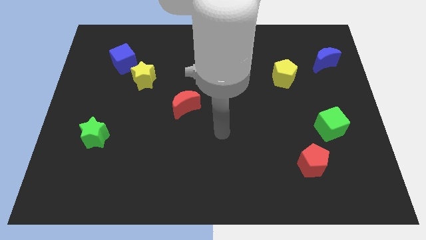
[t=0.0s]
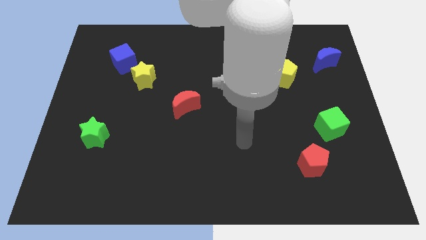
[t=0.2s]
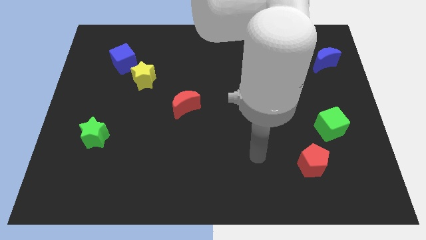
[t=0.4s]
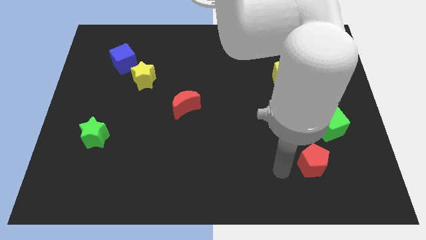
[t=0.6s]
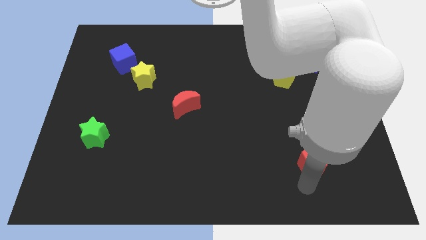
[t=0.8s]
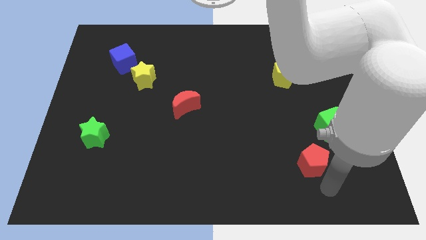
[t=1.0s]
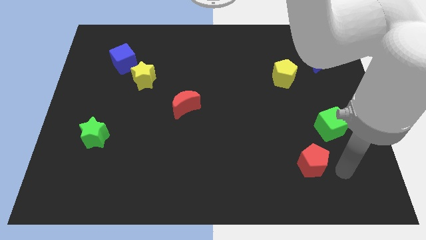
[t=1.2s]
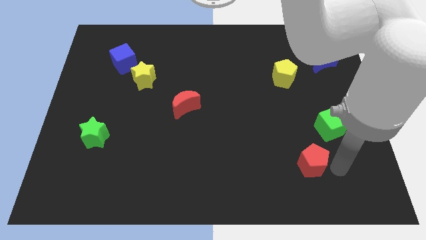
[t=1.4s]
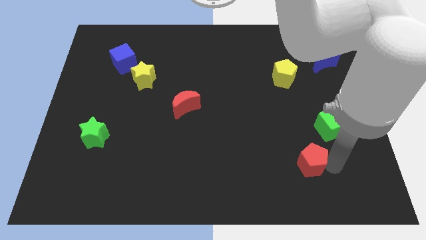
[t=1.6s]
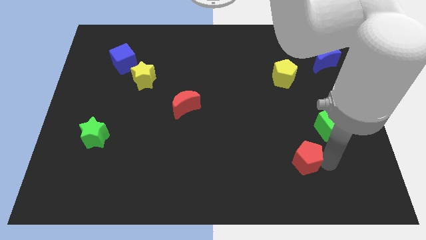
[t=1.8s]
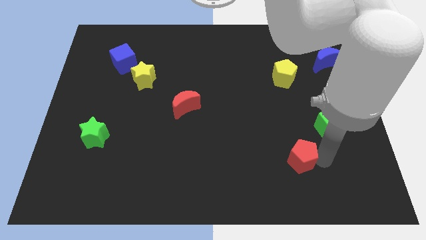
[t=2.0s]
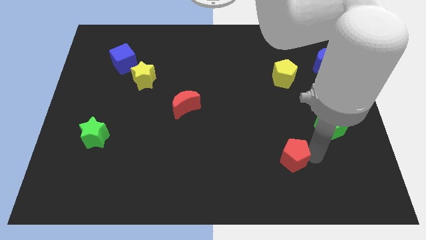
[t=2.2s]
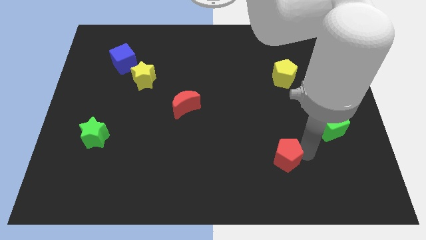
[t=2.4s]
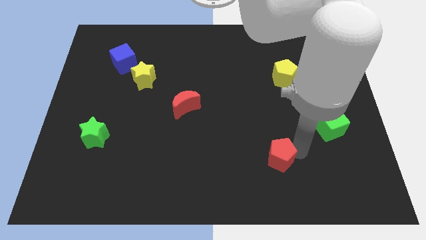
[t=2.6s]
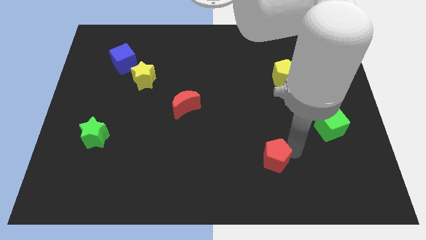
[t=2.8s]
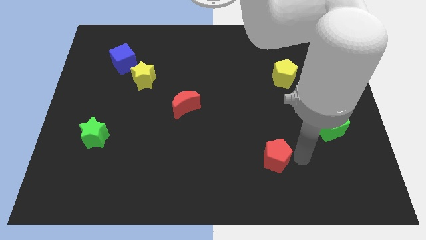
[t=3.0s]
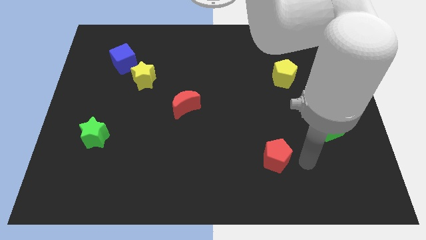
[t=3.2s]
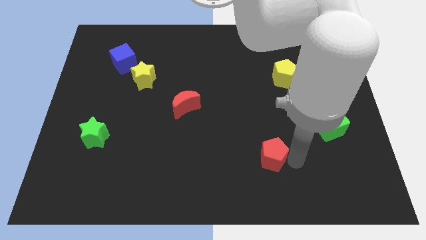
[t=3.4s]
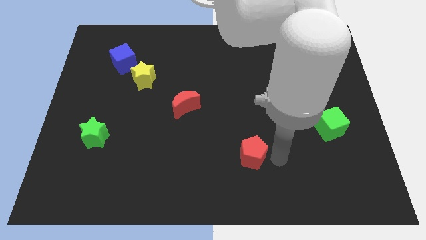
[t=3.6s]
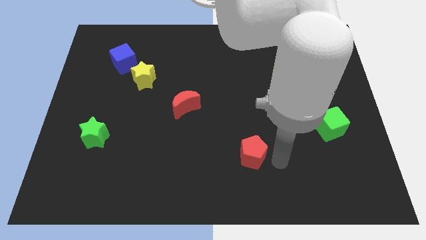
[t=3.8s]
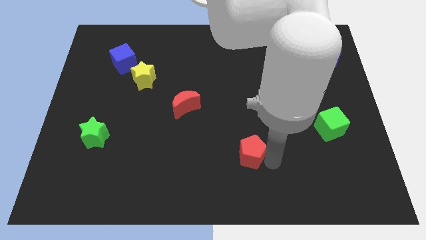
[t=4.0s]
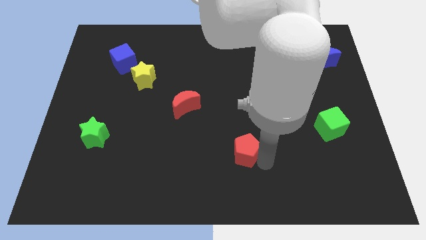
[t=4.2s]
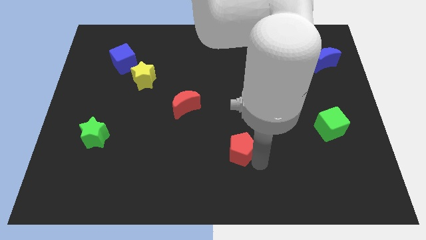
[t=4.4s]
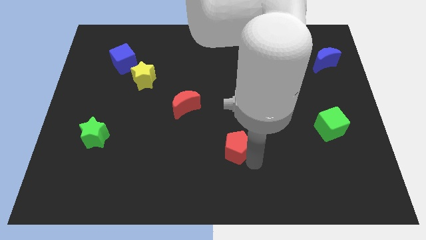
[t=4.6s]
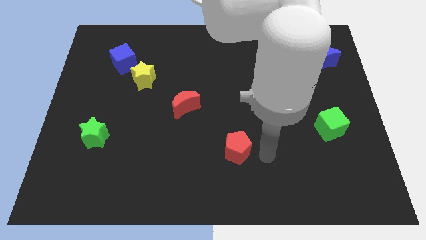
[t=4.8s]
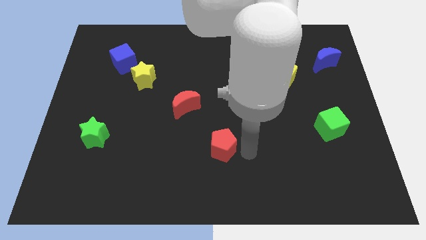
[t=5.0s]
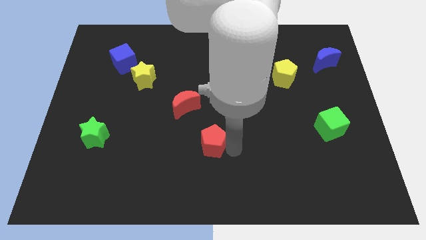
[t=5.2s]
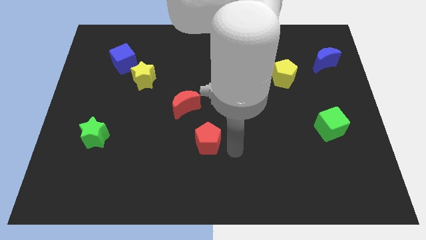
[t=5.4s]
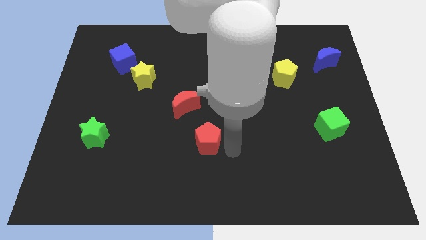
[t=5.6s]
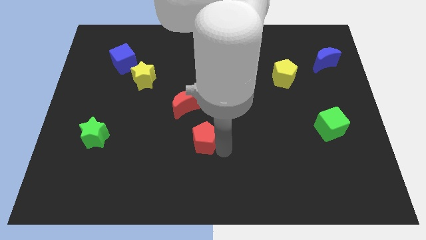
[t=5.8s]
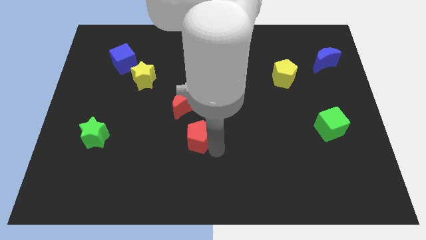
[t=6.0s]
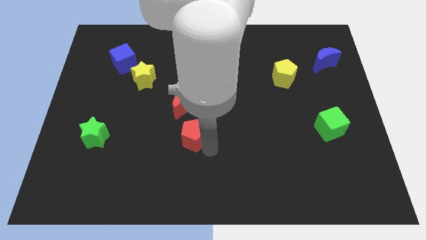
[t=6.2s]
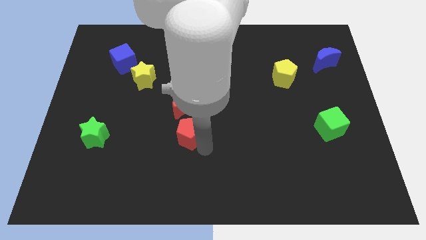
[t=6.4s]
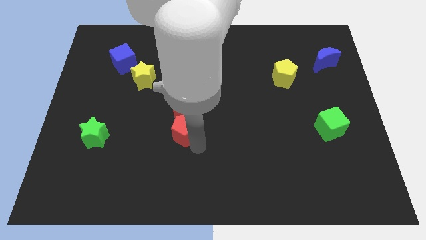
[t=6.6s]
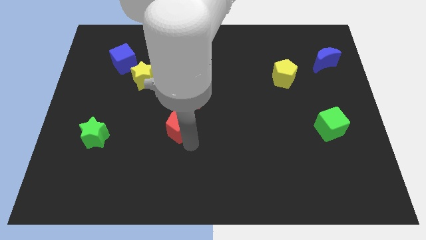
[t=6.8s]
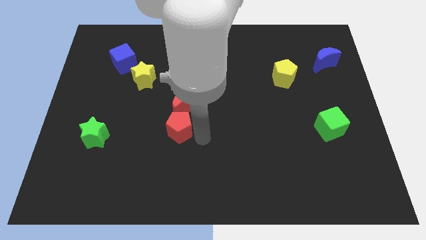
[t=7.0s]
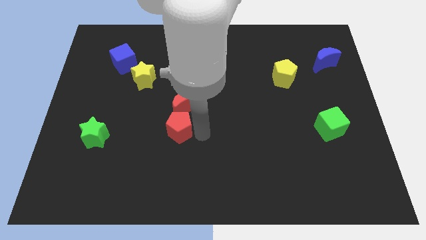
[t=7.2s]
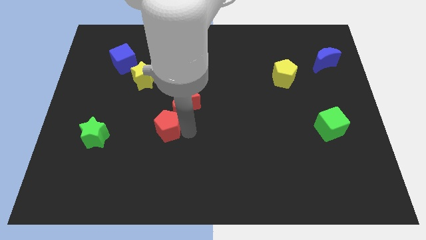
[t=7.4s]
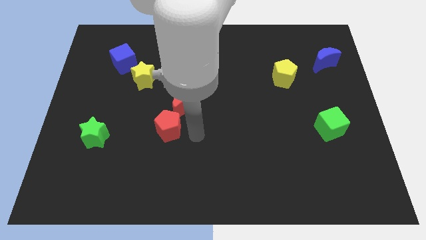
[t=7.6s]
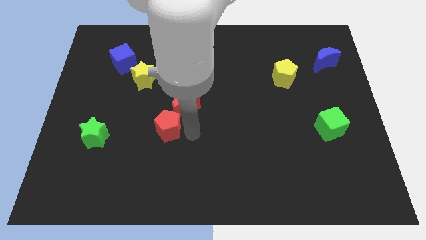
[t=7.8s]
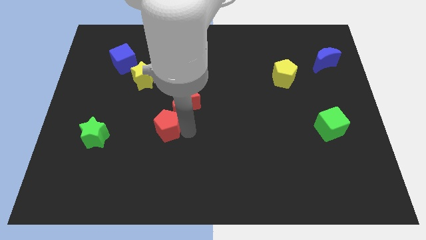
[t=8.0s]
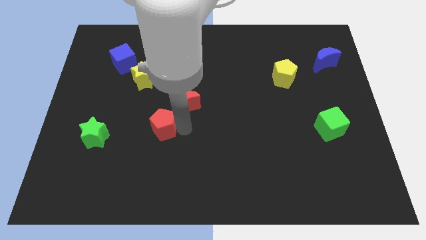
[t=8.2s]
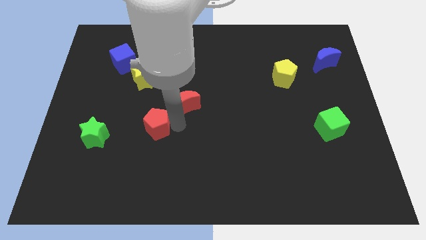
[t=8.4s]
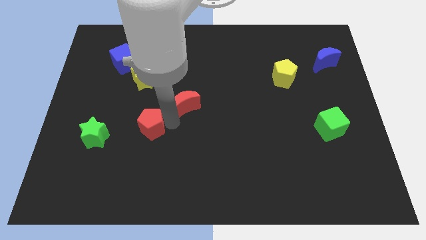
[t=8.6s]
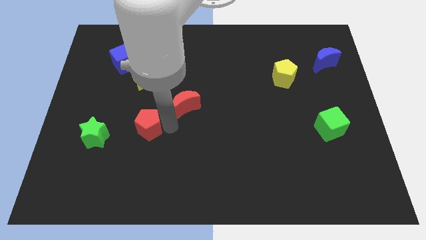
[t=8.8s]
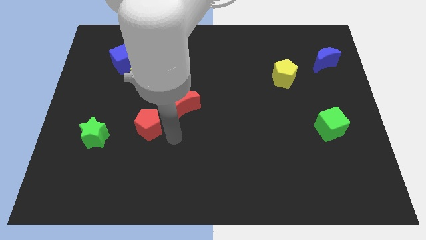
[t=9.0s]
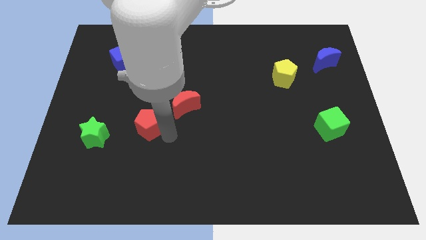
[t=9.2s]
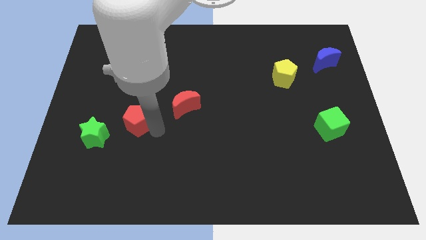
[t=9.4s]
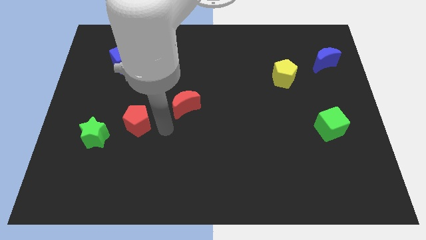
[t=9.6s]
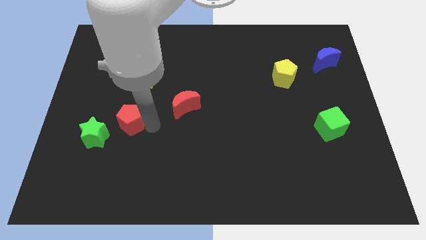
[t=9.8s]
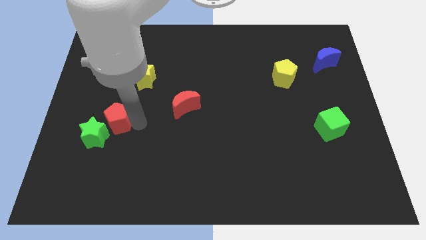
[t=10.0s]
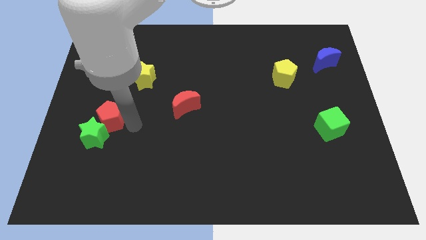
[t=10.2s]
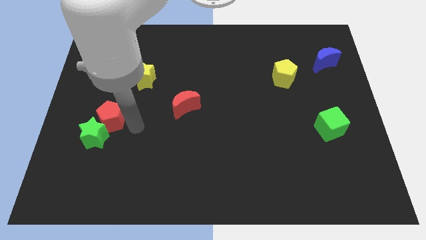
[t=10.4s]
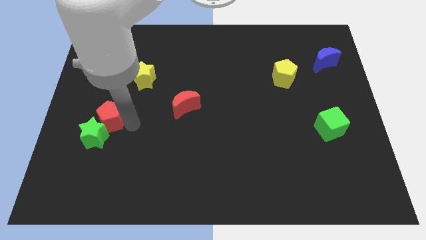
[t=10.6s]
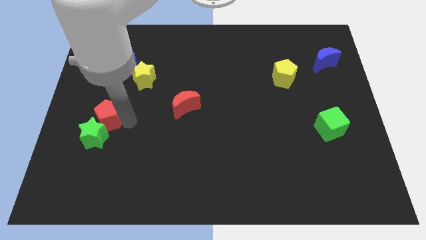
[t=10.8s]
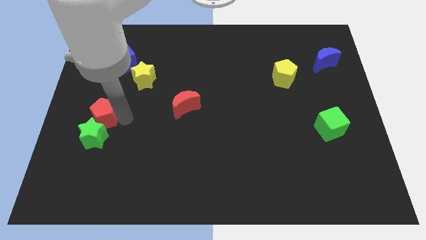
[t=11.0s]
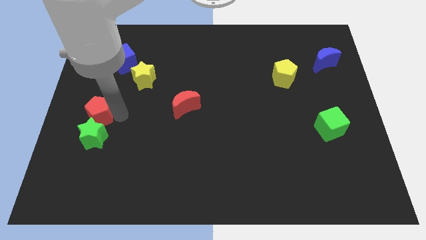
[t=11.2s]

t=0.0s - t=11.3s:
slide the red pentagon to the left side

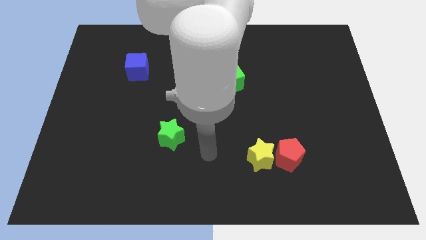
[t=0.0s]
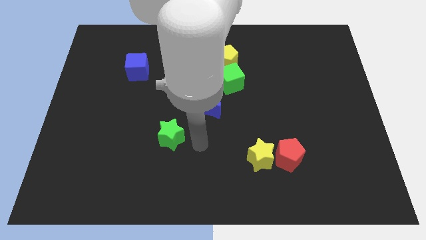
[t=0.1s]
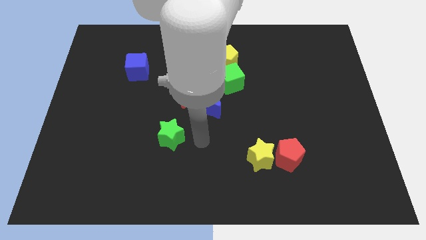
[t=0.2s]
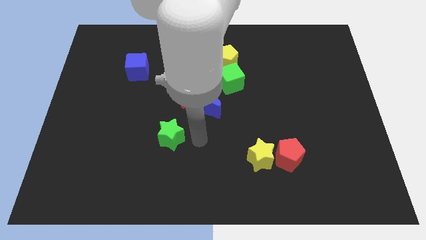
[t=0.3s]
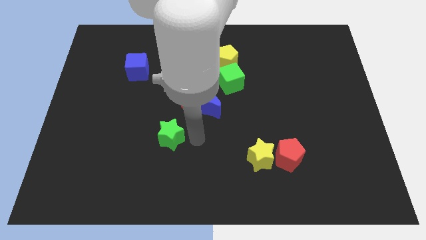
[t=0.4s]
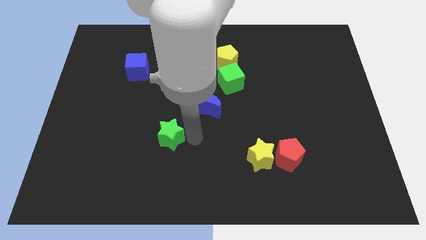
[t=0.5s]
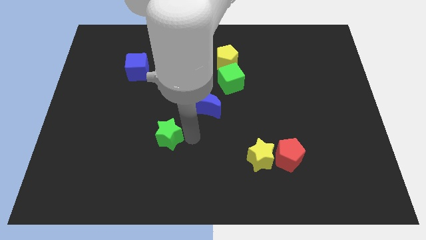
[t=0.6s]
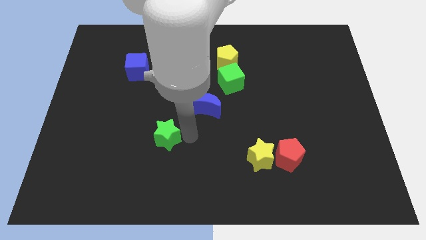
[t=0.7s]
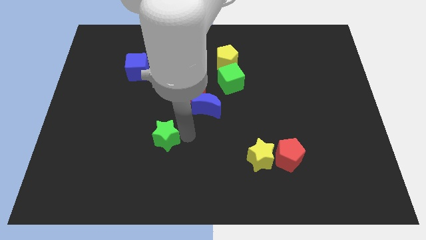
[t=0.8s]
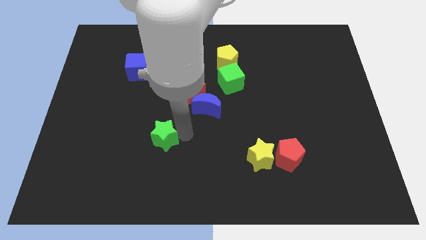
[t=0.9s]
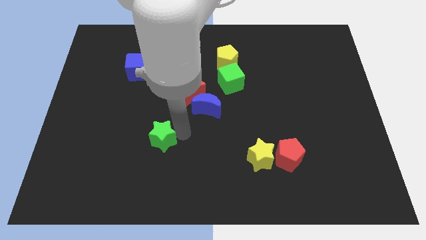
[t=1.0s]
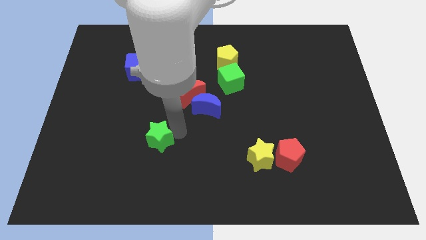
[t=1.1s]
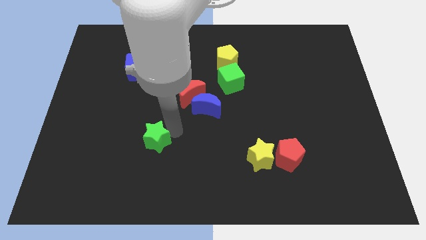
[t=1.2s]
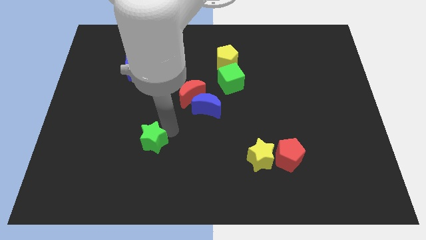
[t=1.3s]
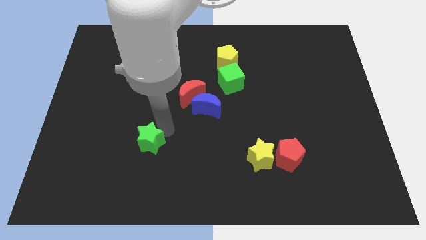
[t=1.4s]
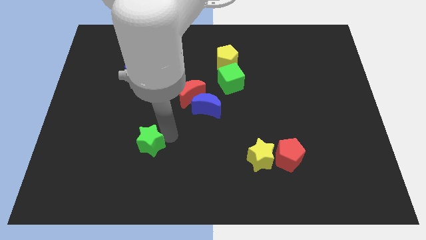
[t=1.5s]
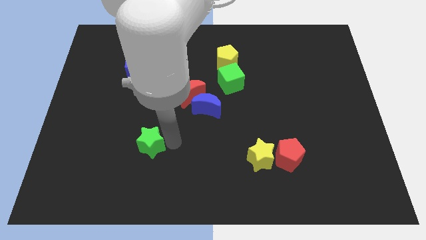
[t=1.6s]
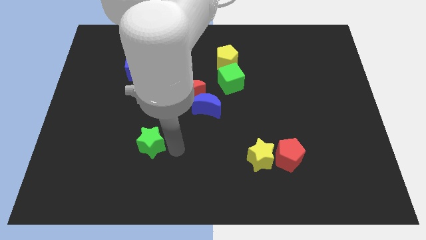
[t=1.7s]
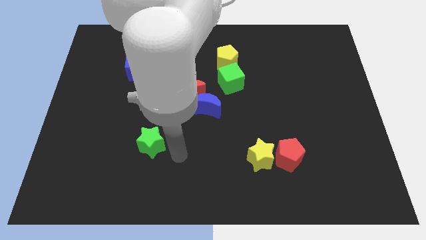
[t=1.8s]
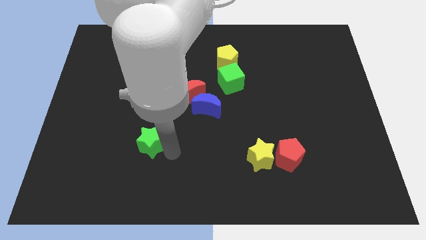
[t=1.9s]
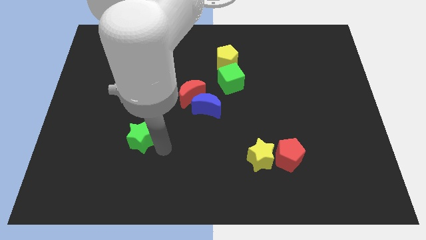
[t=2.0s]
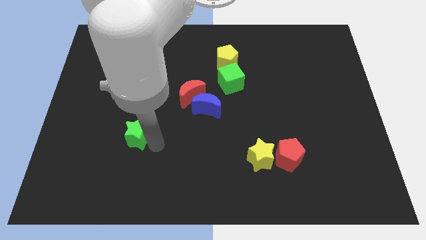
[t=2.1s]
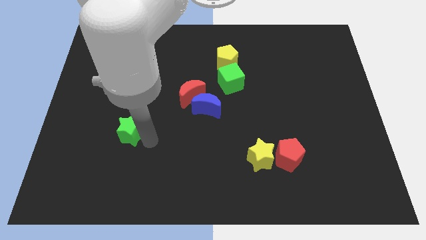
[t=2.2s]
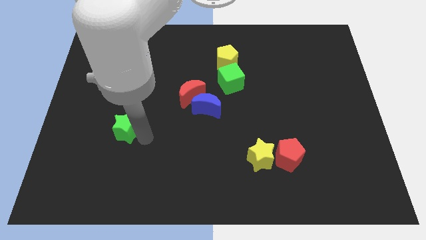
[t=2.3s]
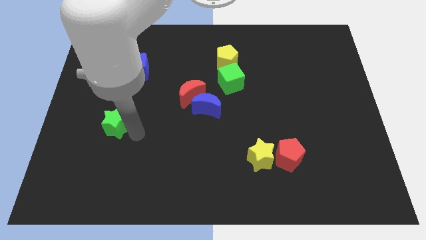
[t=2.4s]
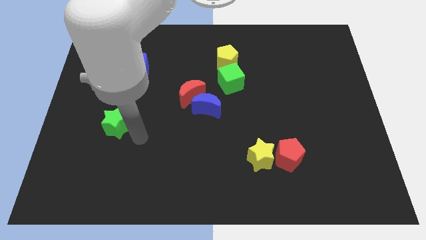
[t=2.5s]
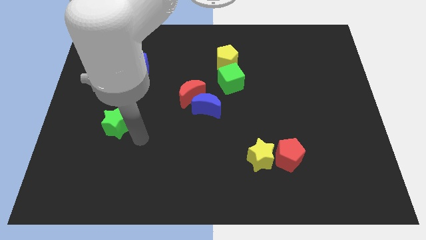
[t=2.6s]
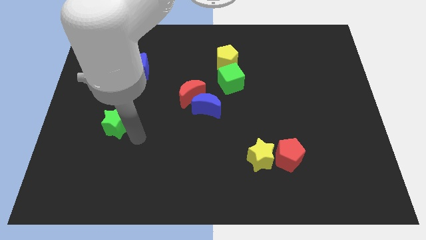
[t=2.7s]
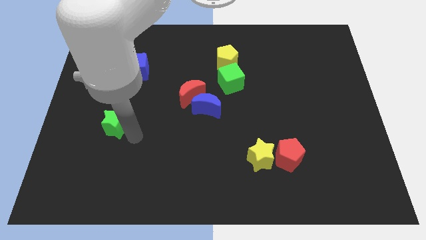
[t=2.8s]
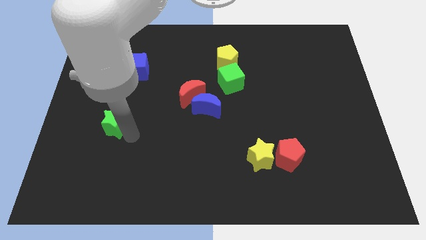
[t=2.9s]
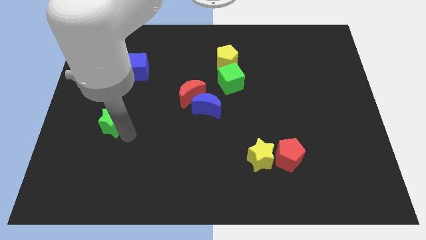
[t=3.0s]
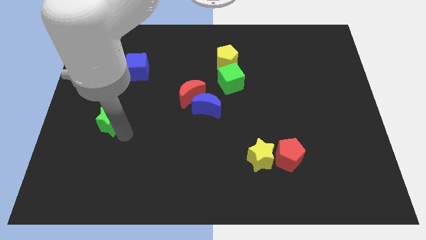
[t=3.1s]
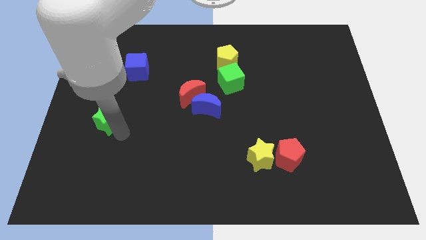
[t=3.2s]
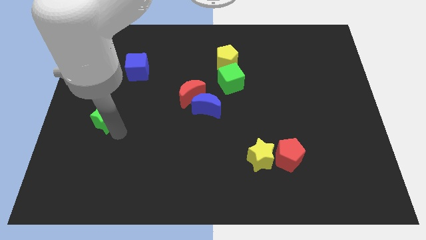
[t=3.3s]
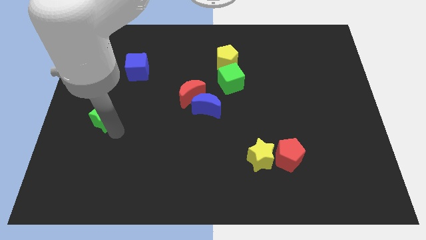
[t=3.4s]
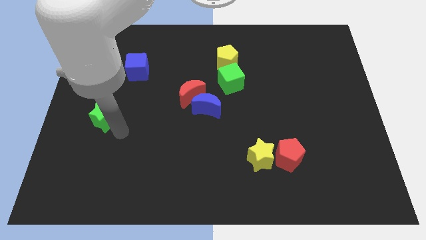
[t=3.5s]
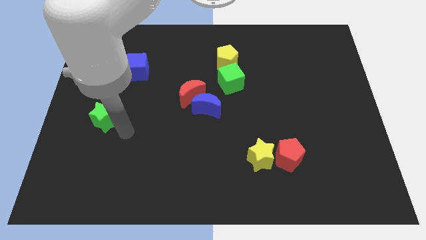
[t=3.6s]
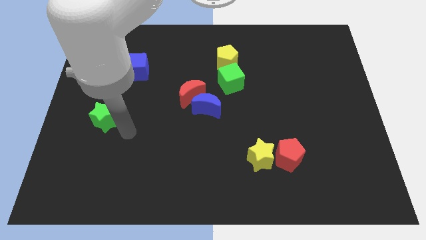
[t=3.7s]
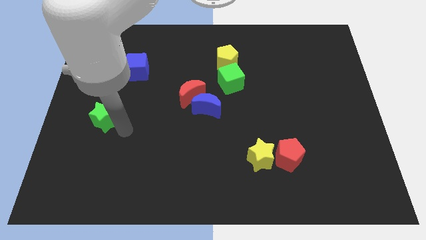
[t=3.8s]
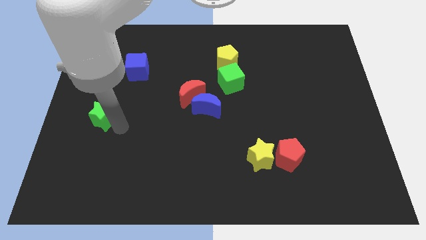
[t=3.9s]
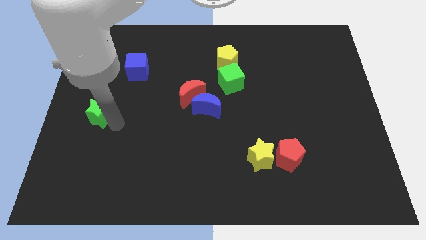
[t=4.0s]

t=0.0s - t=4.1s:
move the green star to the center left
